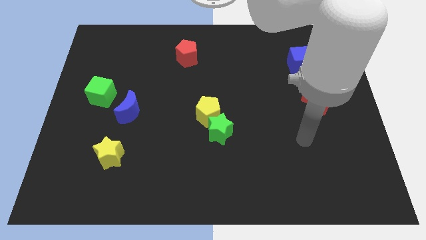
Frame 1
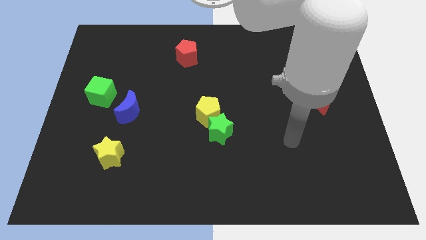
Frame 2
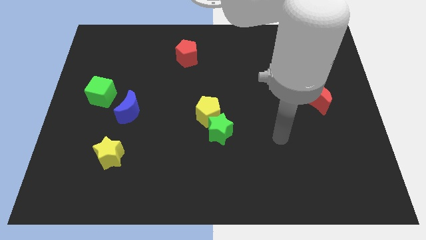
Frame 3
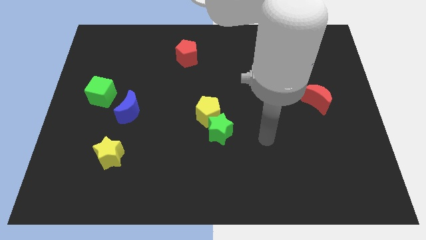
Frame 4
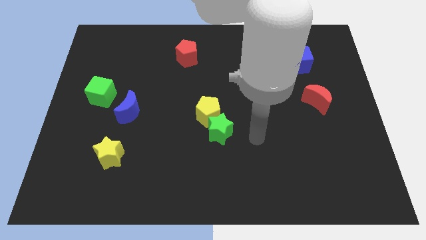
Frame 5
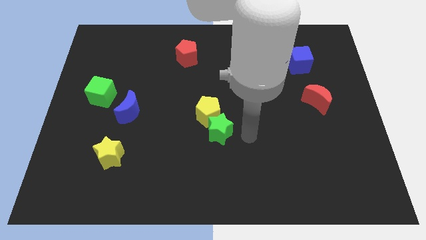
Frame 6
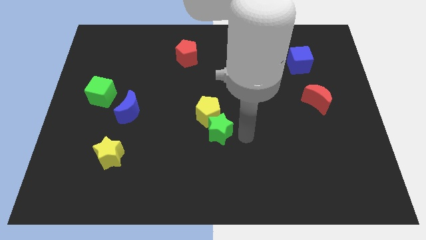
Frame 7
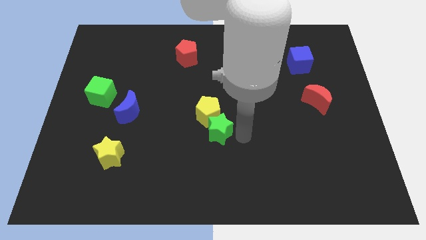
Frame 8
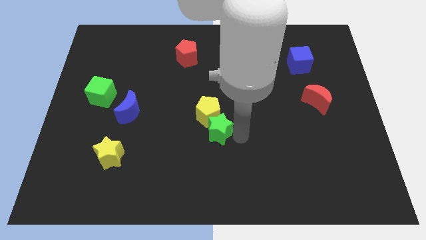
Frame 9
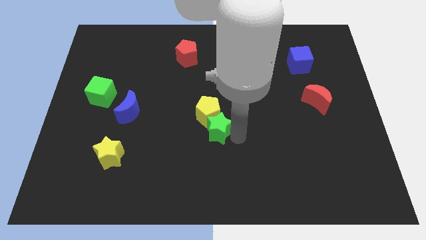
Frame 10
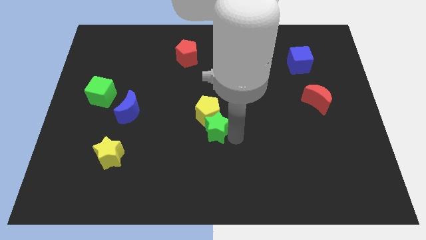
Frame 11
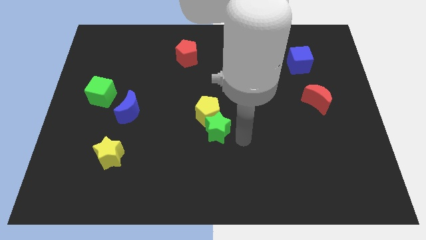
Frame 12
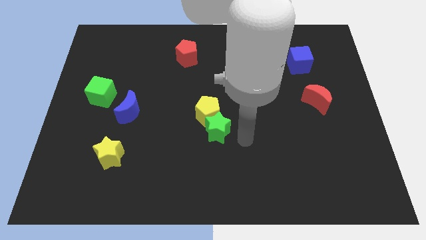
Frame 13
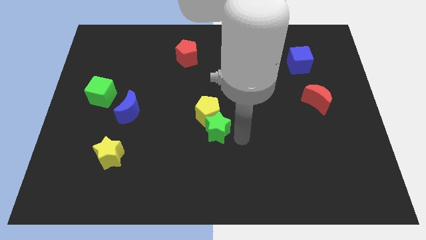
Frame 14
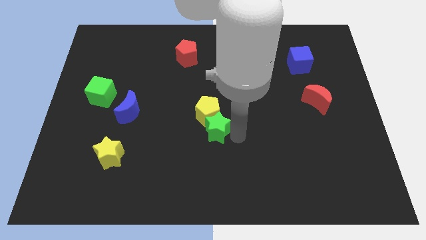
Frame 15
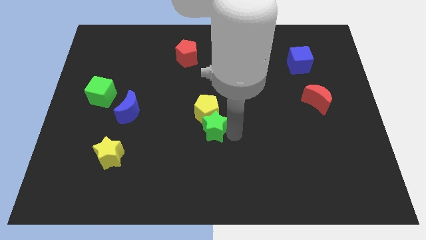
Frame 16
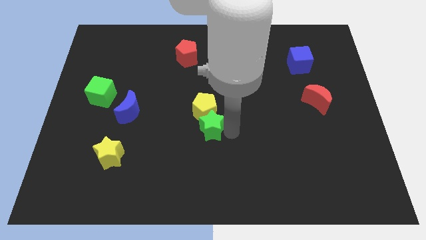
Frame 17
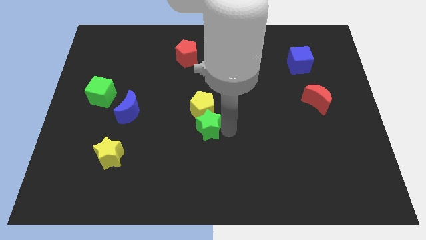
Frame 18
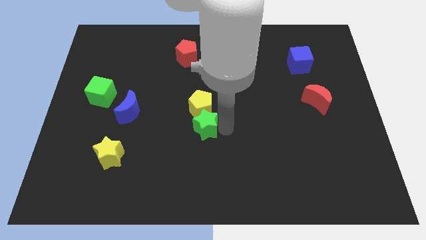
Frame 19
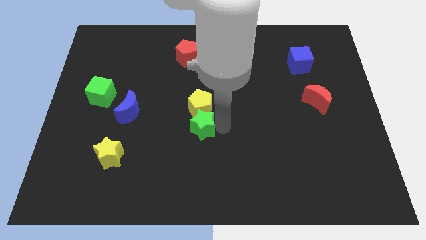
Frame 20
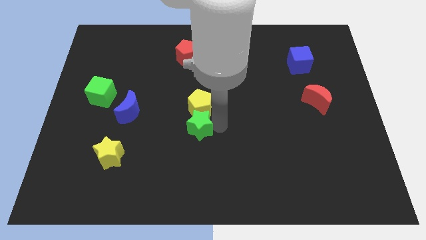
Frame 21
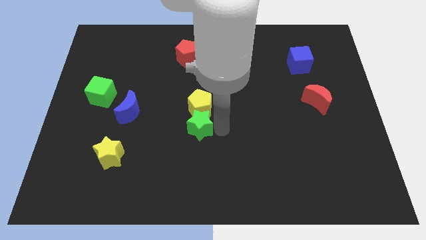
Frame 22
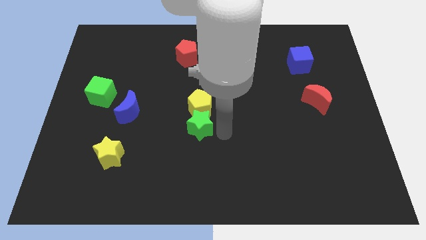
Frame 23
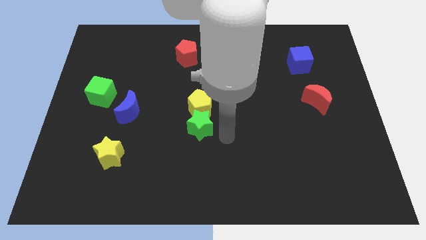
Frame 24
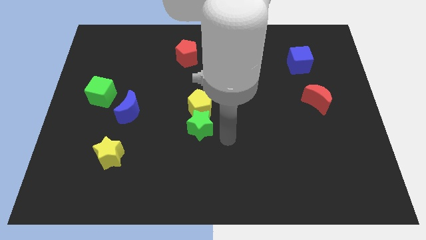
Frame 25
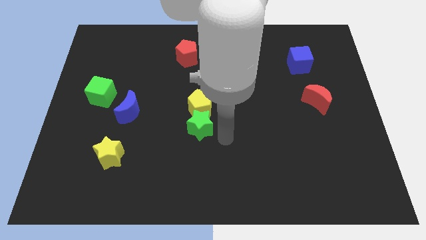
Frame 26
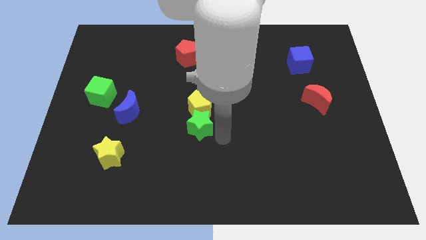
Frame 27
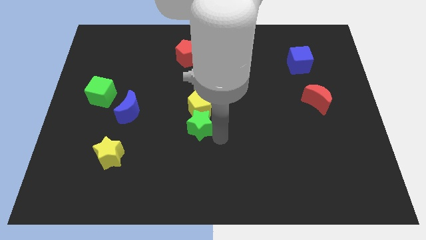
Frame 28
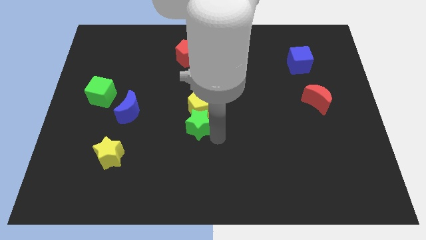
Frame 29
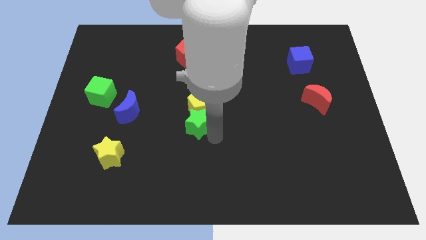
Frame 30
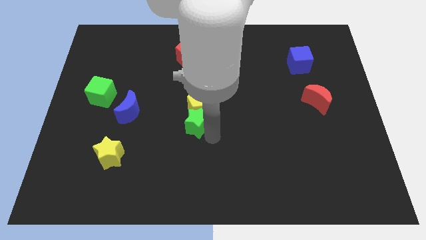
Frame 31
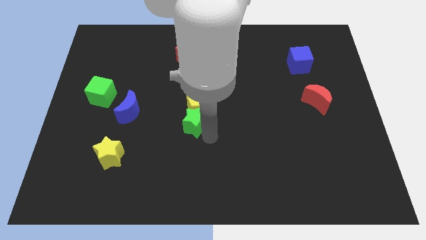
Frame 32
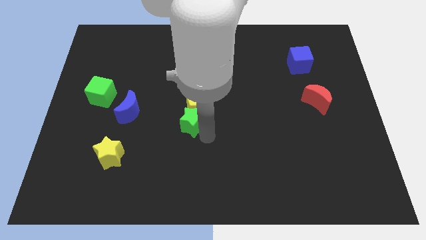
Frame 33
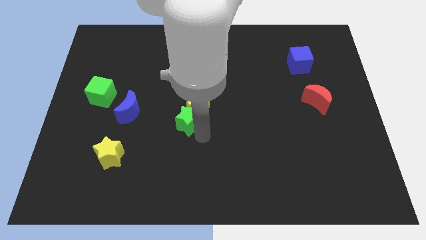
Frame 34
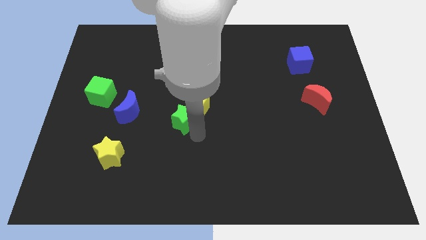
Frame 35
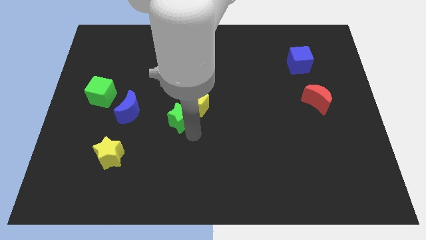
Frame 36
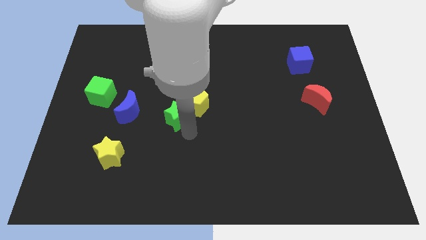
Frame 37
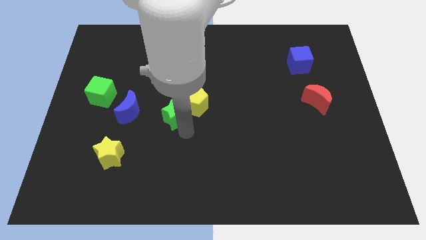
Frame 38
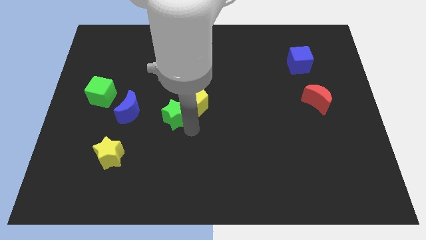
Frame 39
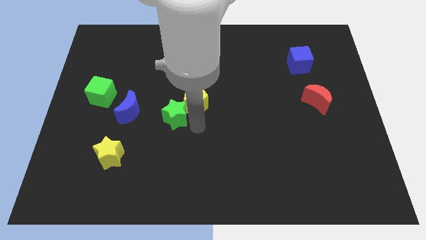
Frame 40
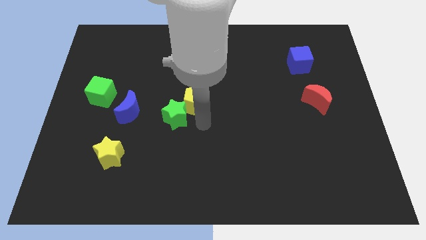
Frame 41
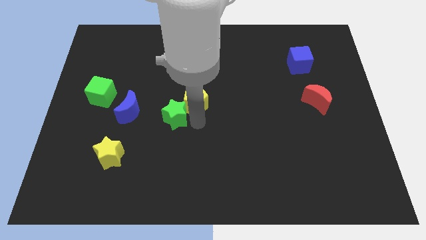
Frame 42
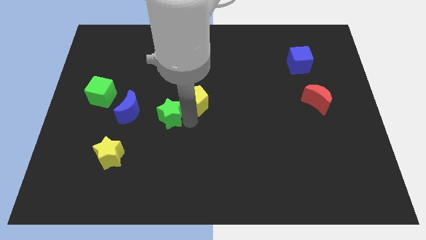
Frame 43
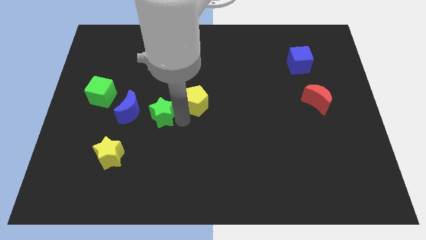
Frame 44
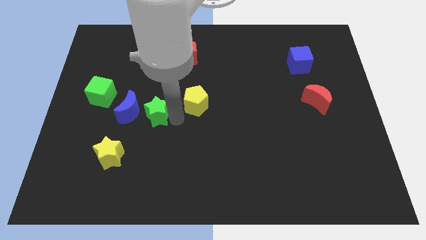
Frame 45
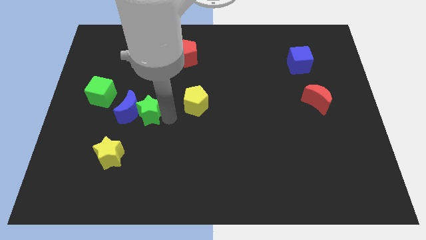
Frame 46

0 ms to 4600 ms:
move the green star next to the blue moon

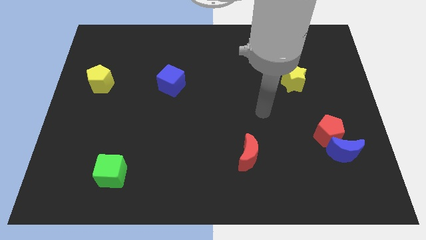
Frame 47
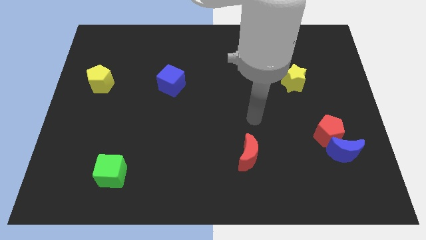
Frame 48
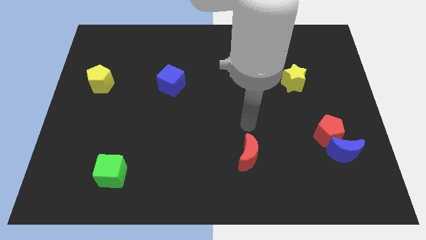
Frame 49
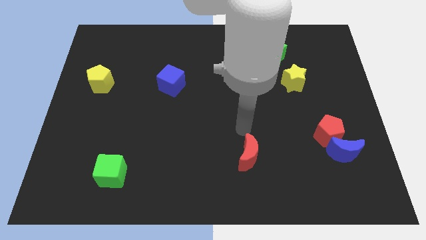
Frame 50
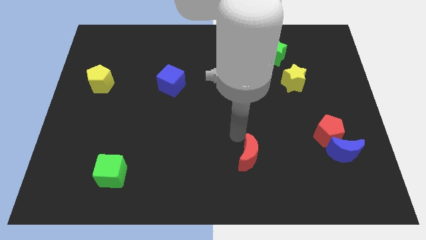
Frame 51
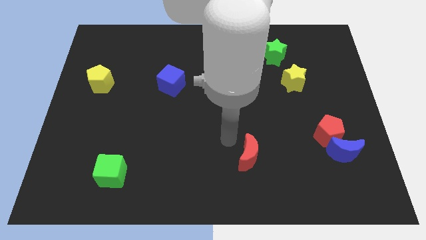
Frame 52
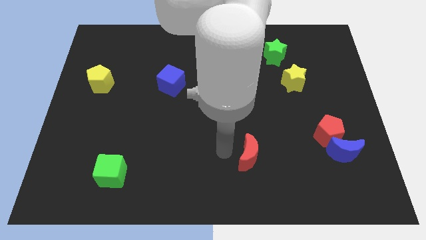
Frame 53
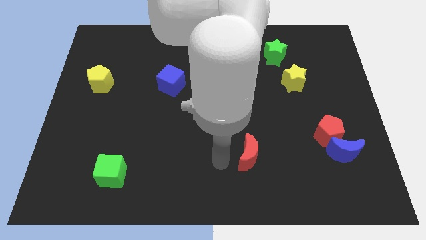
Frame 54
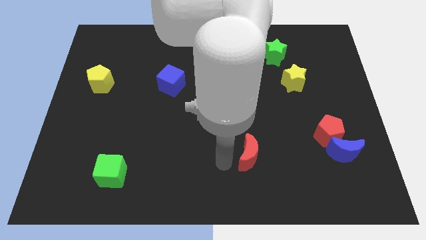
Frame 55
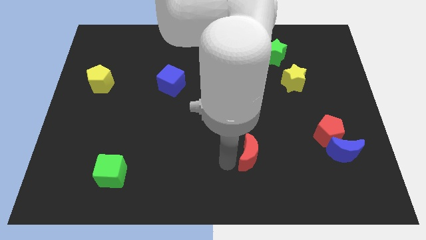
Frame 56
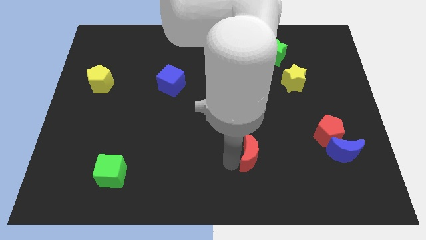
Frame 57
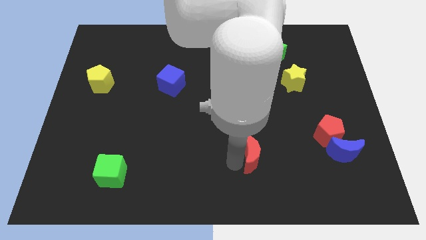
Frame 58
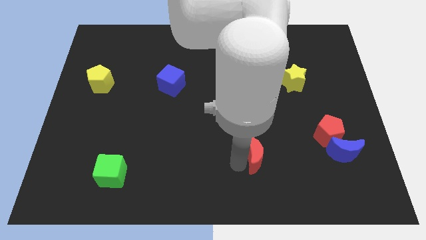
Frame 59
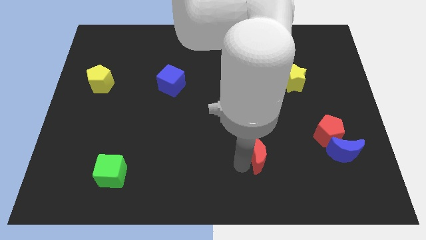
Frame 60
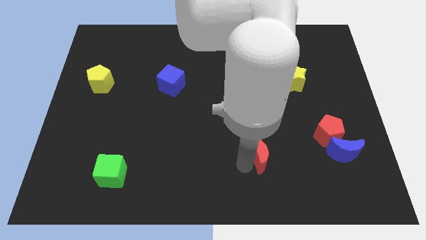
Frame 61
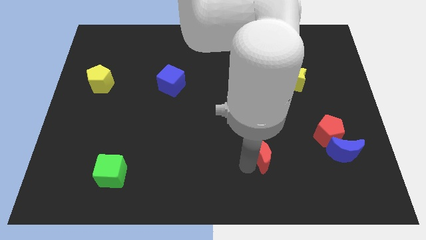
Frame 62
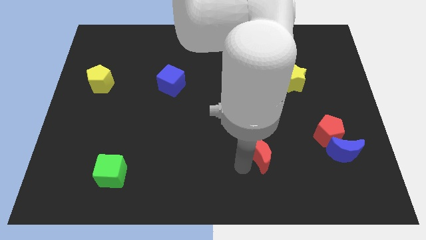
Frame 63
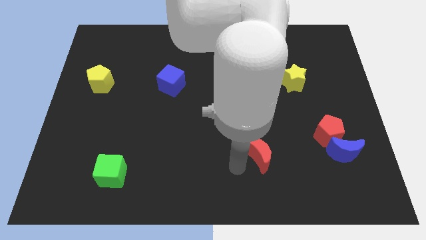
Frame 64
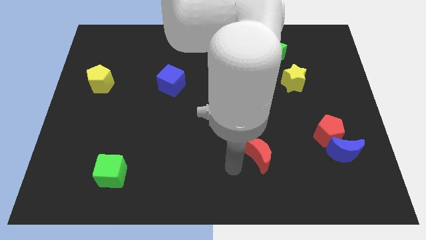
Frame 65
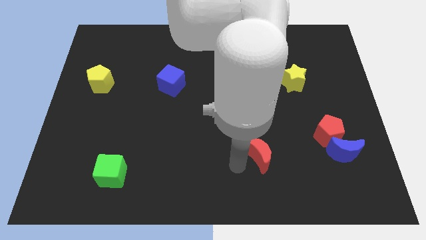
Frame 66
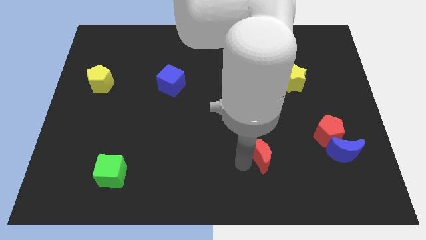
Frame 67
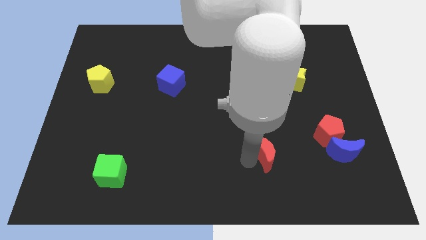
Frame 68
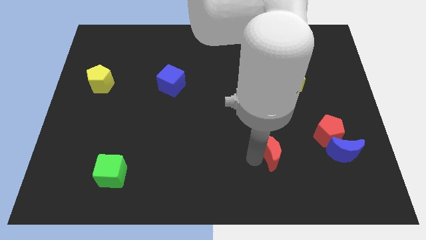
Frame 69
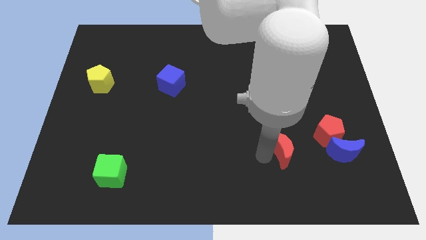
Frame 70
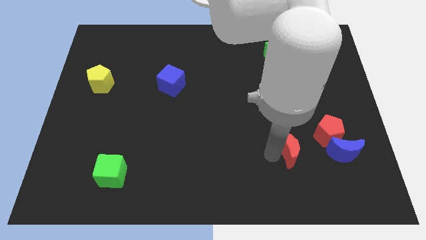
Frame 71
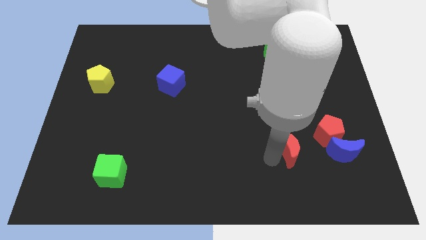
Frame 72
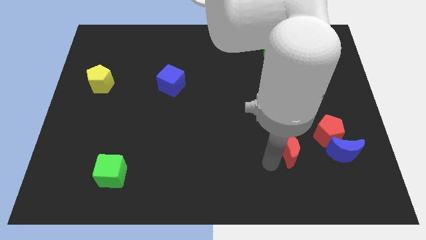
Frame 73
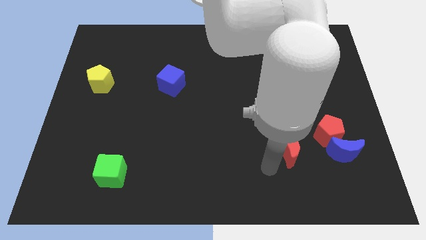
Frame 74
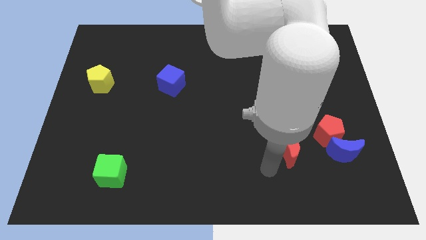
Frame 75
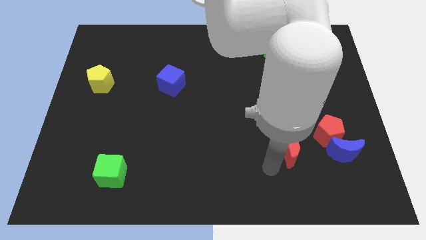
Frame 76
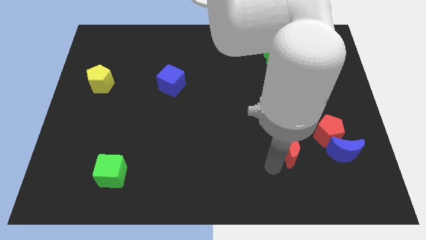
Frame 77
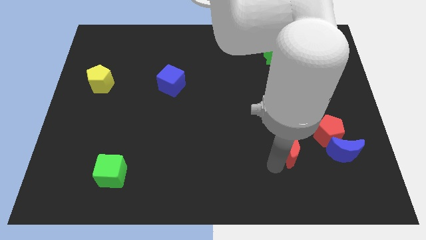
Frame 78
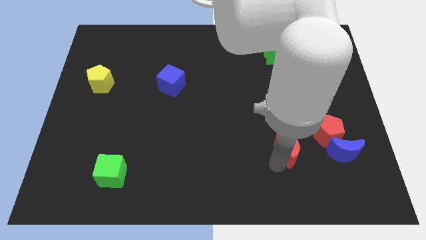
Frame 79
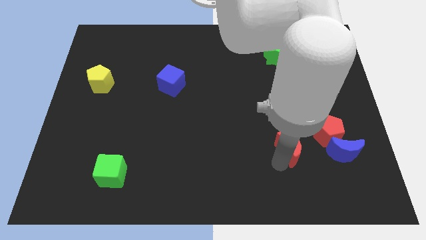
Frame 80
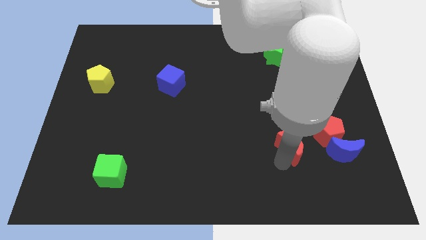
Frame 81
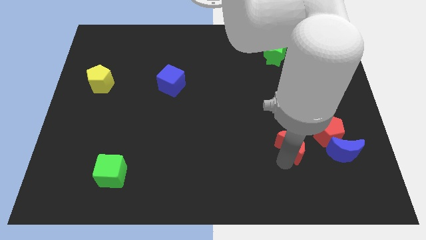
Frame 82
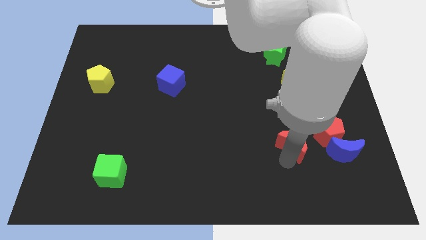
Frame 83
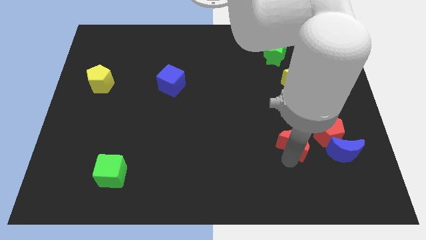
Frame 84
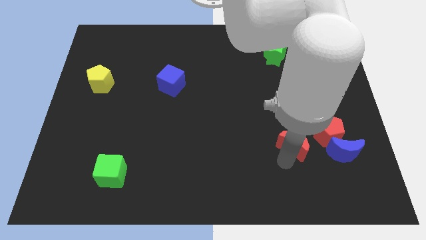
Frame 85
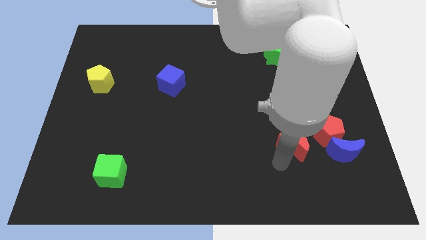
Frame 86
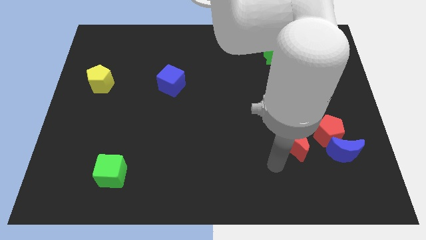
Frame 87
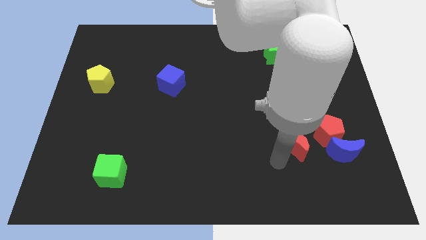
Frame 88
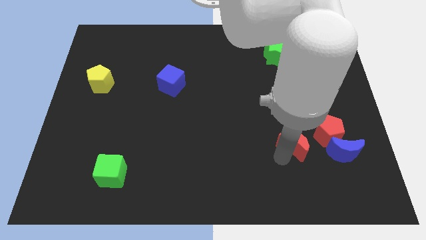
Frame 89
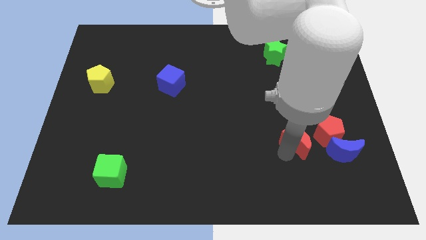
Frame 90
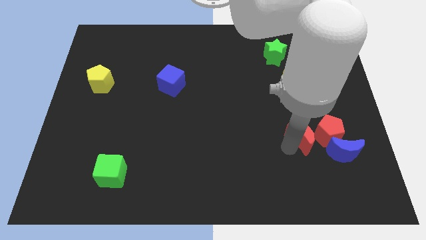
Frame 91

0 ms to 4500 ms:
slide the red moon to the red pentagon
